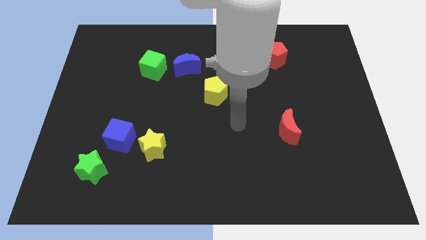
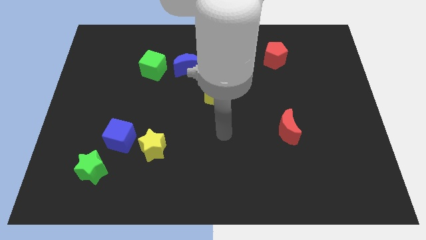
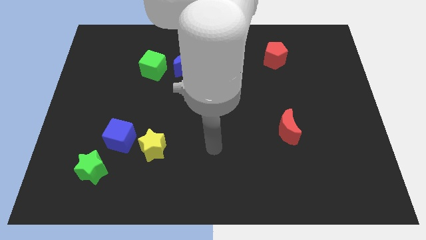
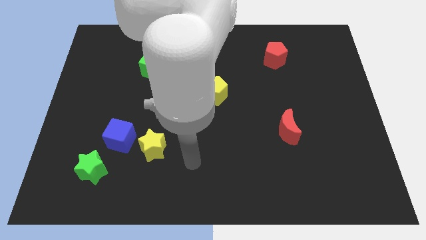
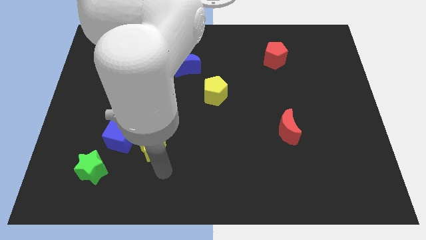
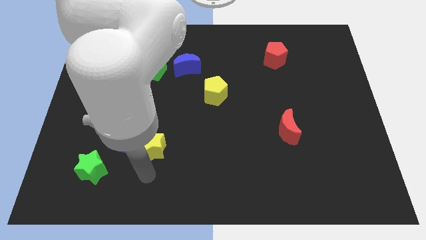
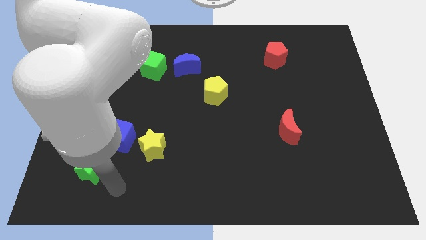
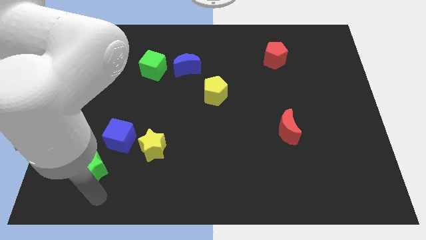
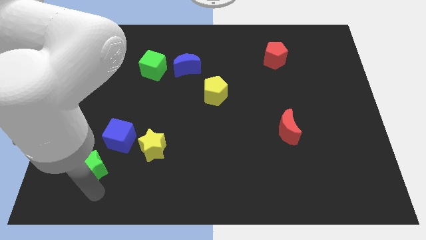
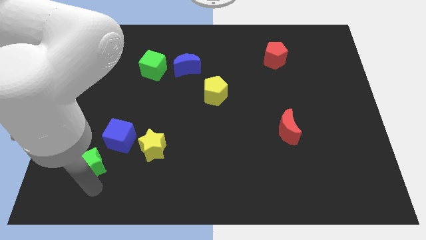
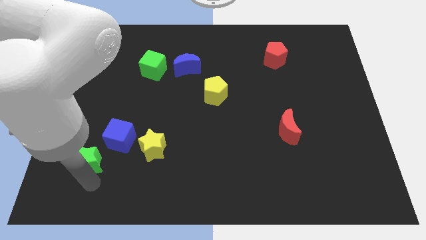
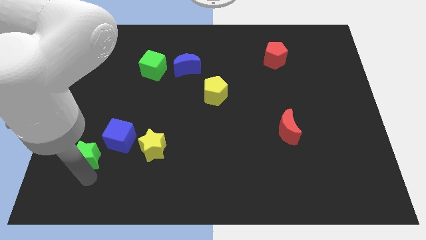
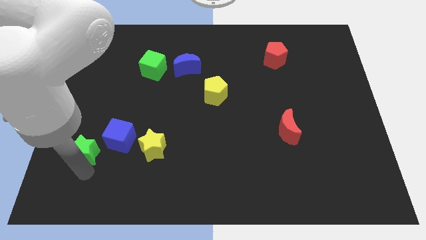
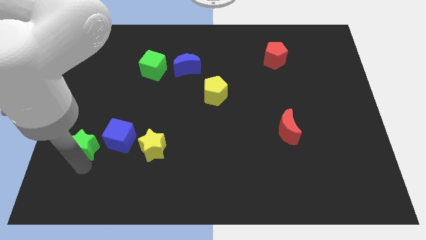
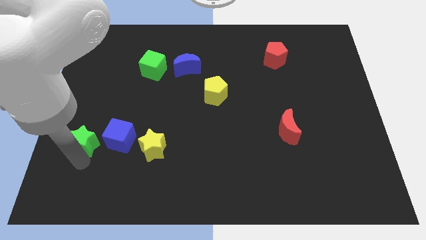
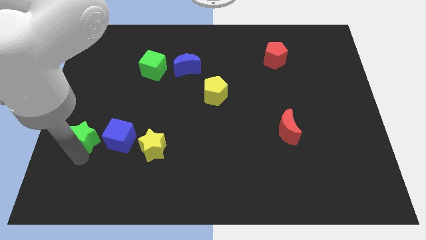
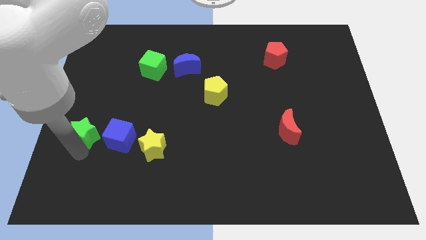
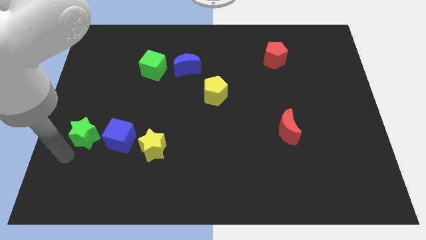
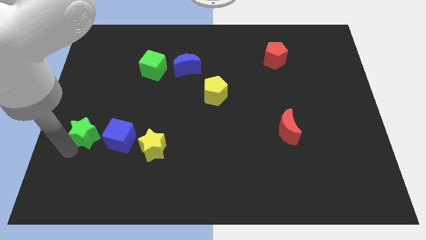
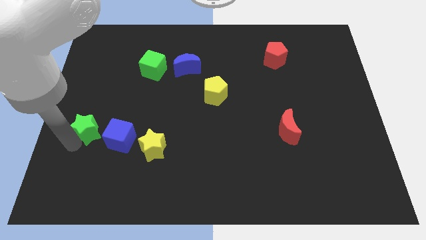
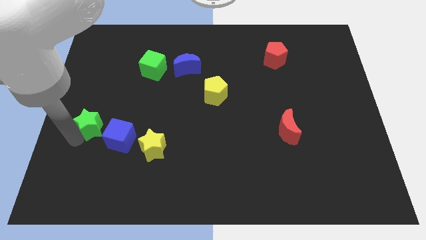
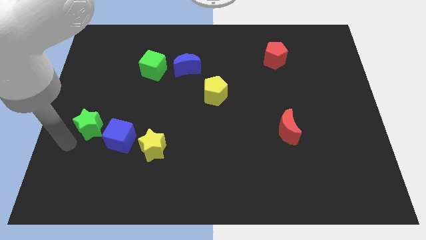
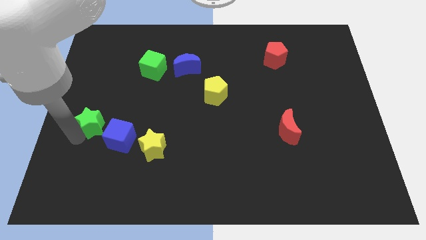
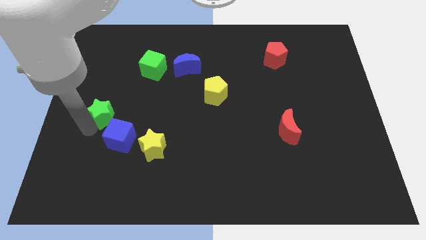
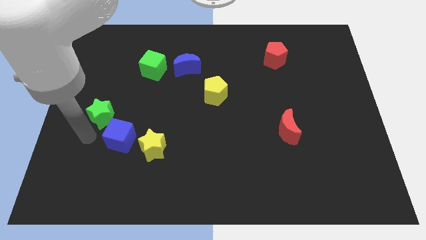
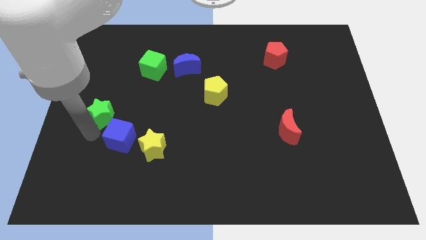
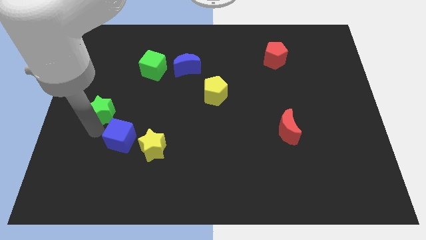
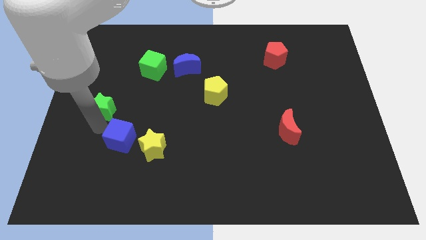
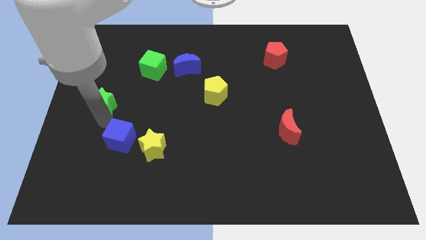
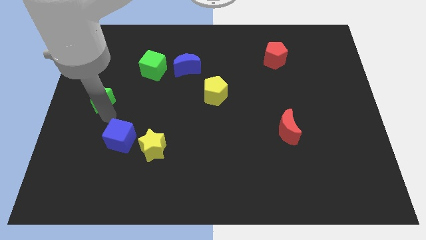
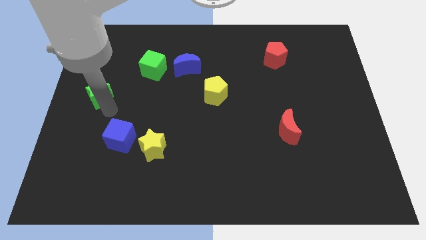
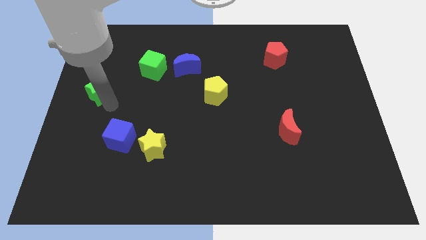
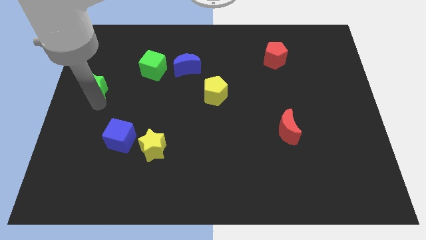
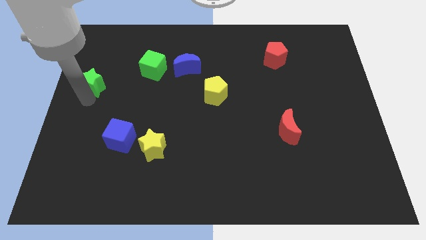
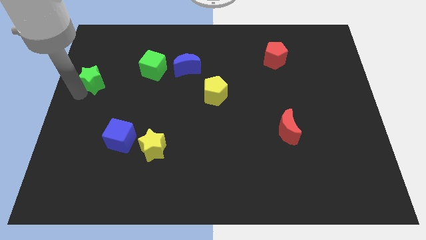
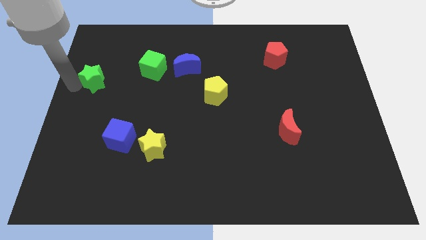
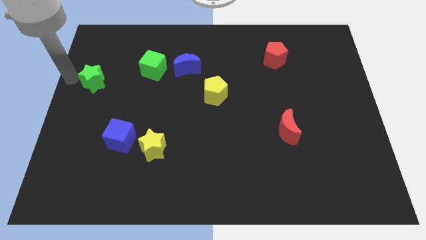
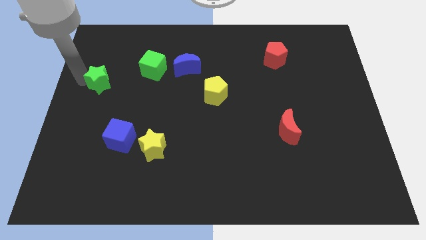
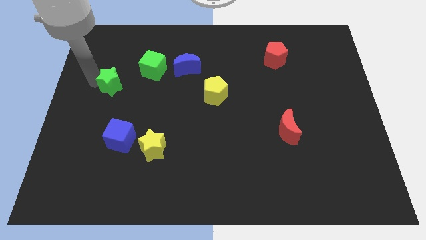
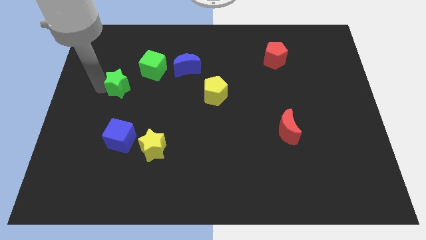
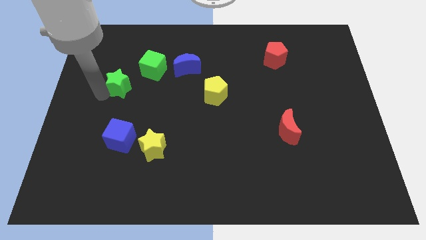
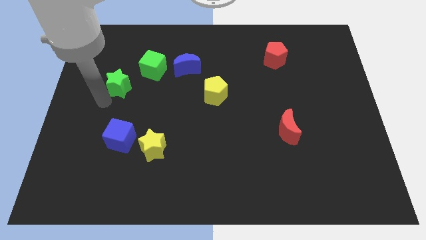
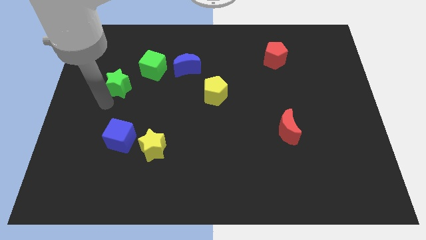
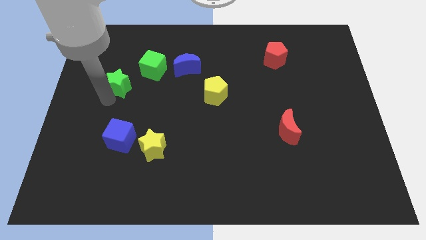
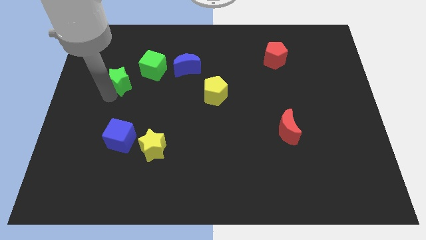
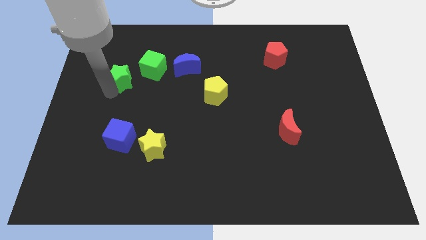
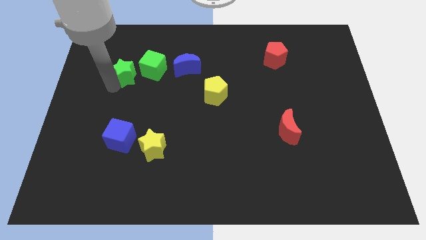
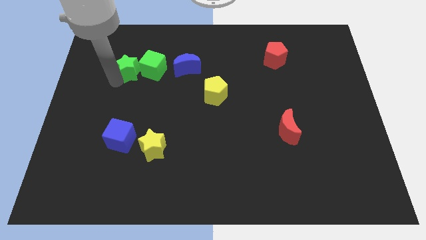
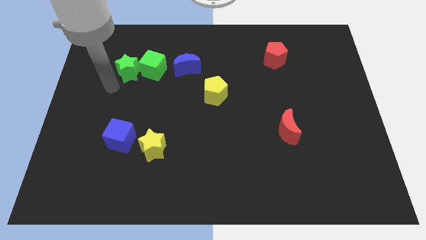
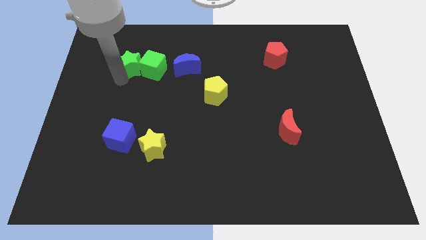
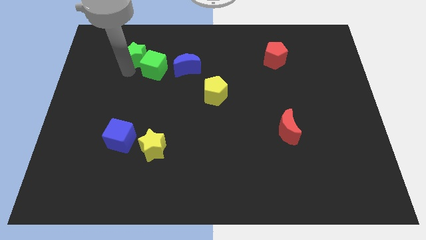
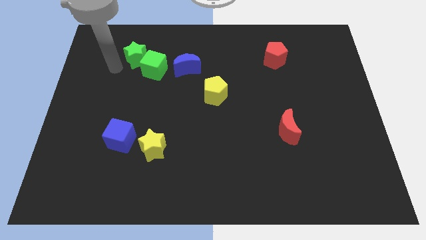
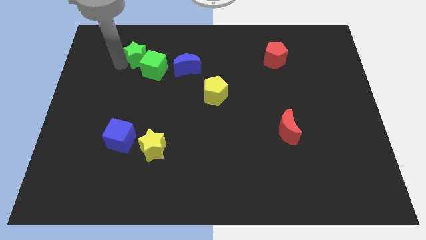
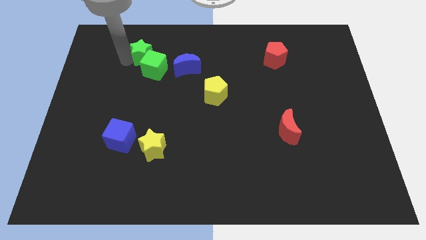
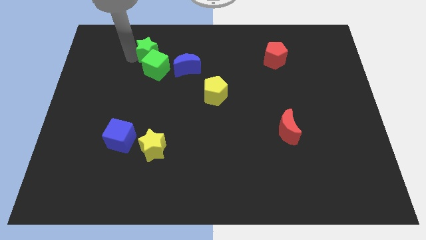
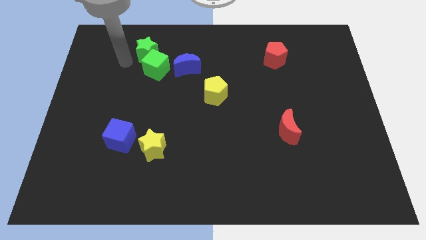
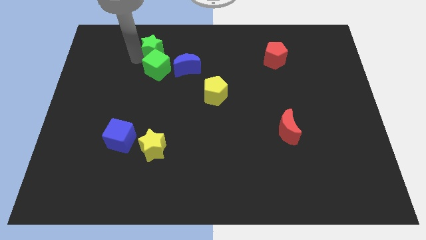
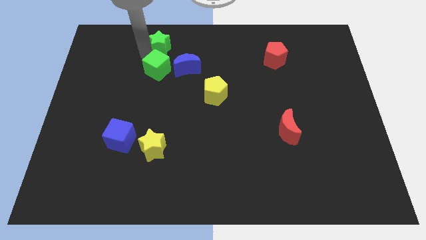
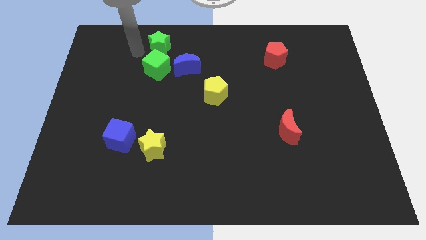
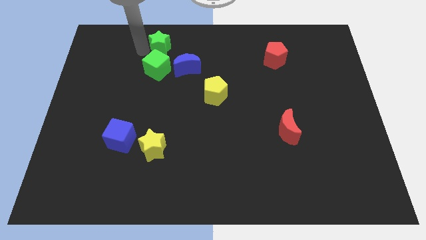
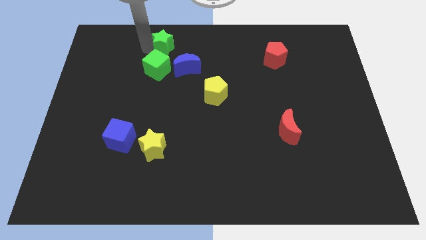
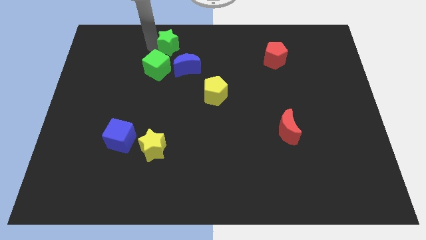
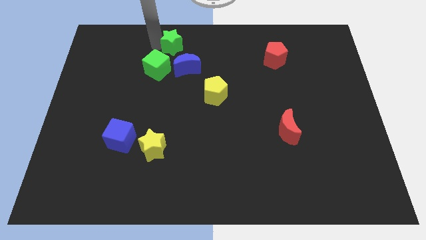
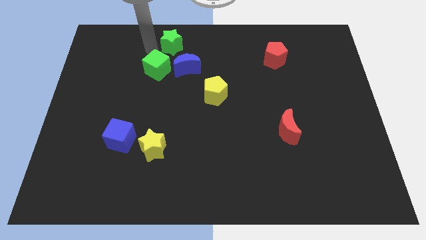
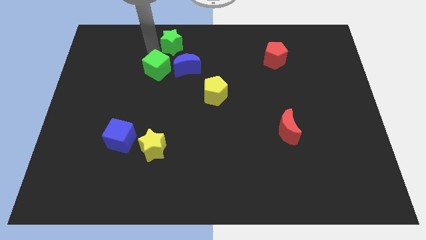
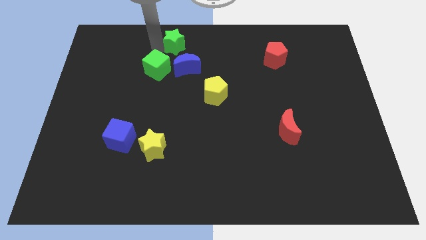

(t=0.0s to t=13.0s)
slide the green star to the top side

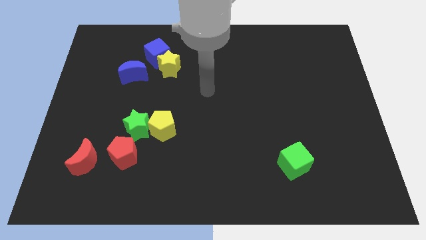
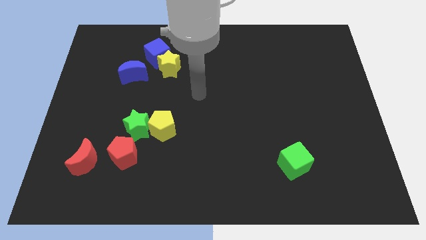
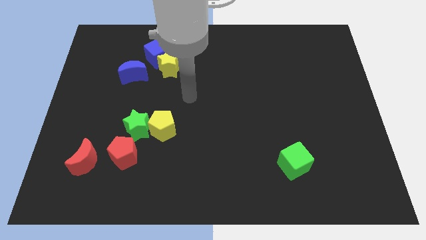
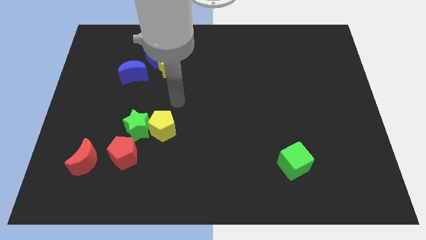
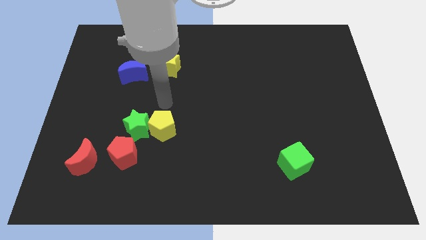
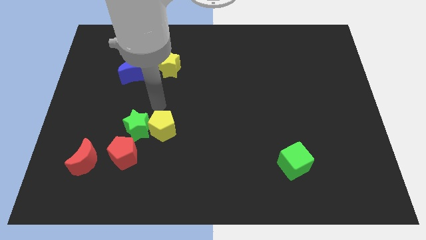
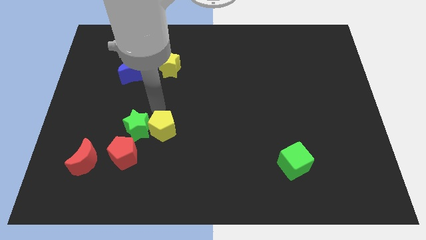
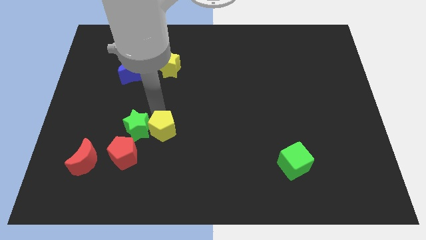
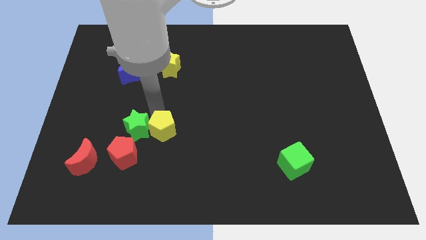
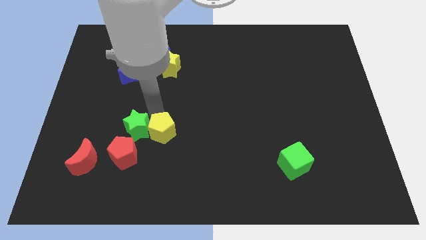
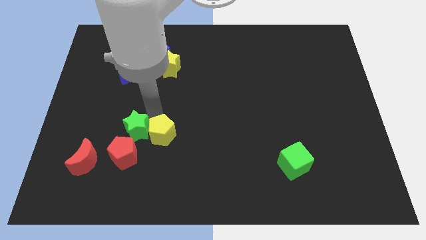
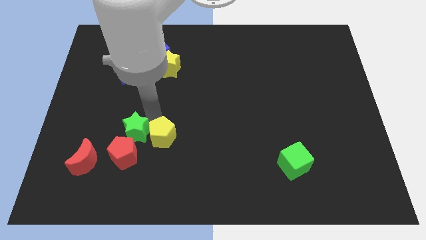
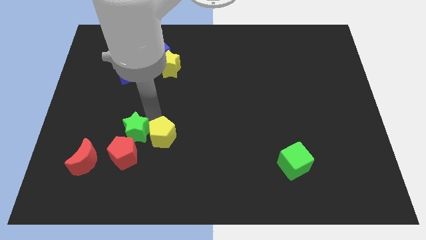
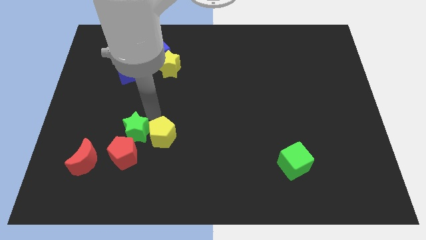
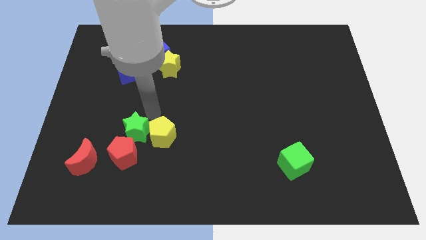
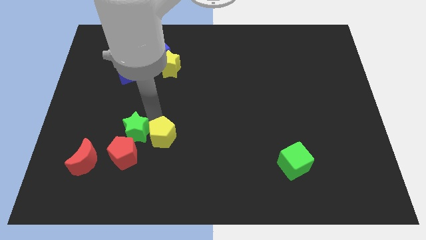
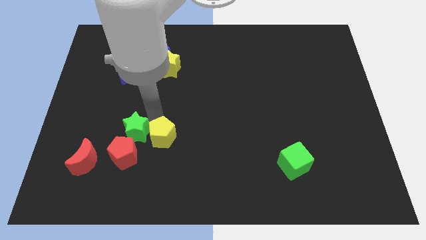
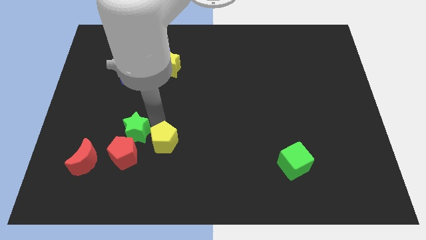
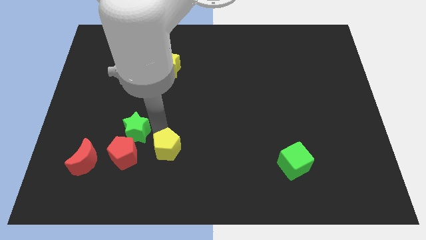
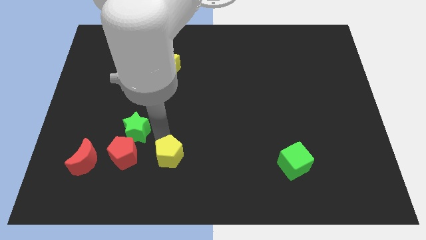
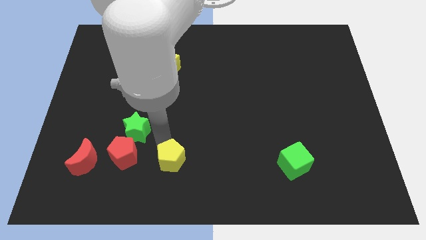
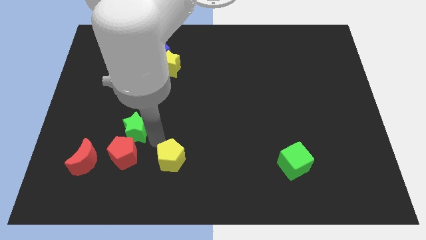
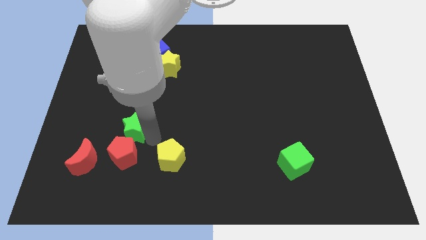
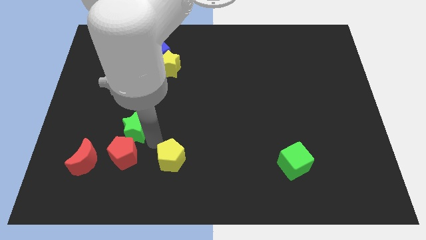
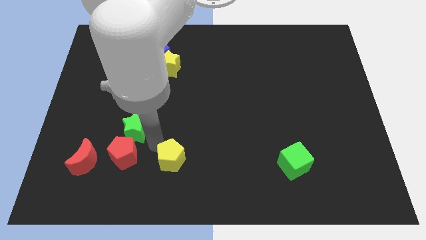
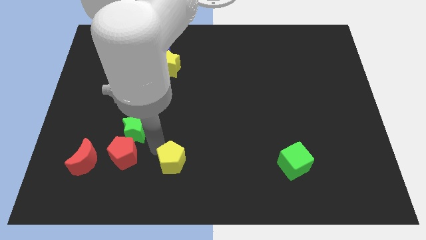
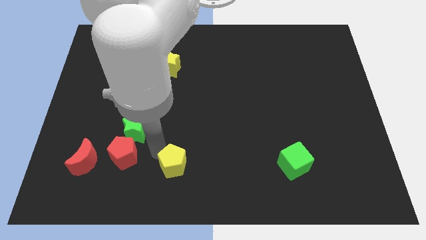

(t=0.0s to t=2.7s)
move the yellow pentagon to the bottom
